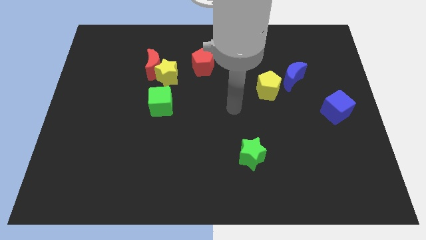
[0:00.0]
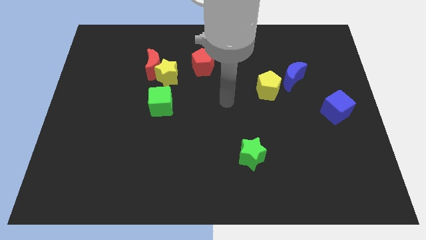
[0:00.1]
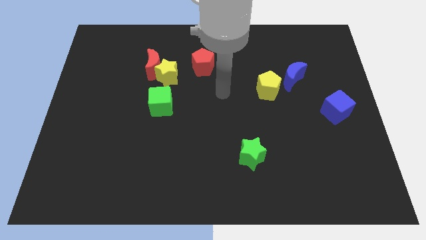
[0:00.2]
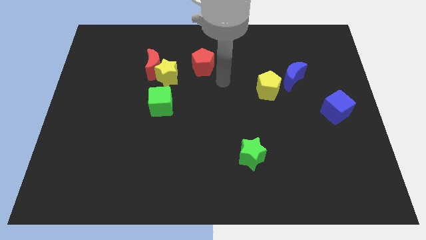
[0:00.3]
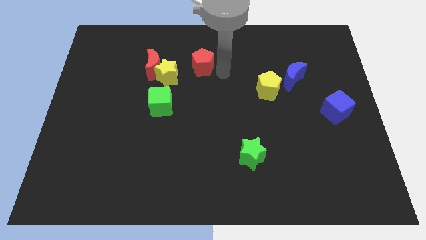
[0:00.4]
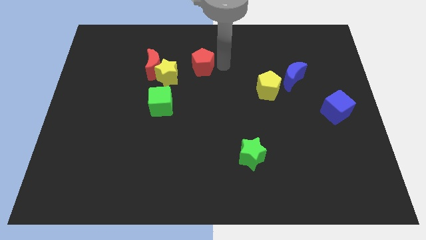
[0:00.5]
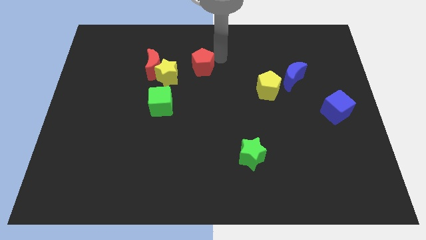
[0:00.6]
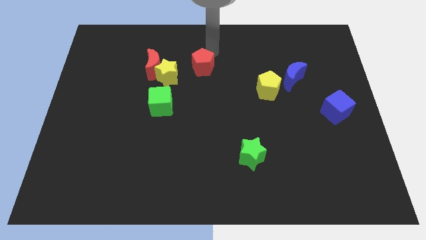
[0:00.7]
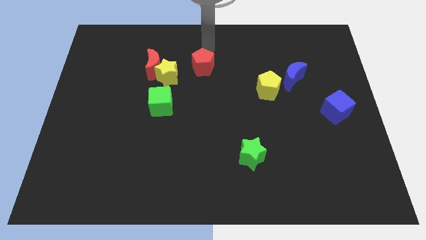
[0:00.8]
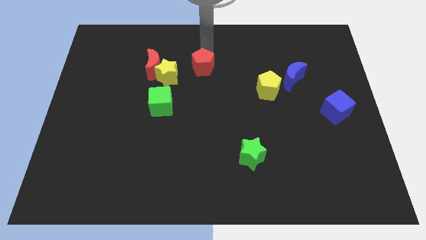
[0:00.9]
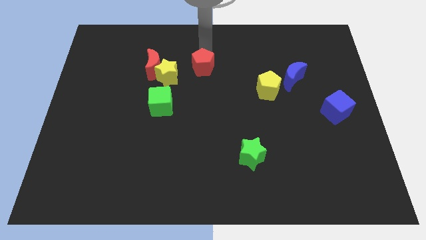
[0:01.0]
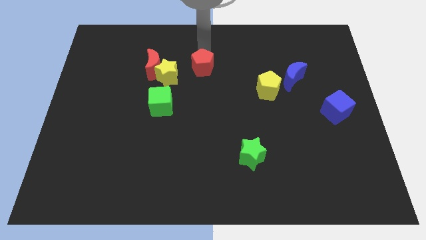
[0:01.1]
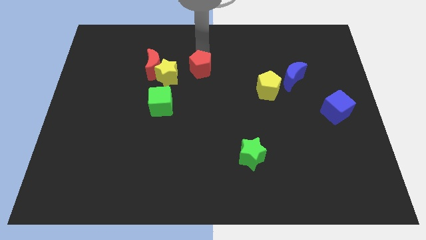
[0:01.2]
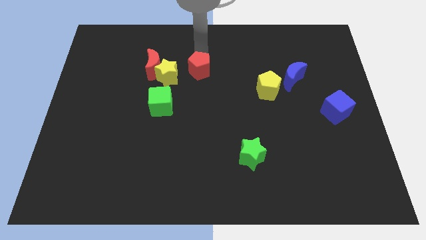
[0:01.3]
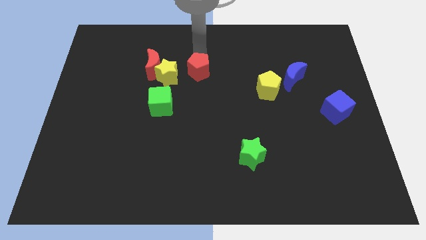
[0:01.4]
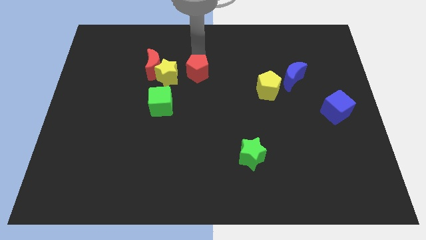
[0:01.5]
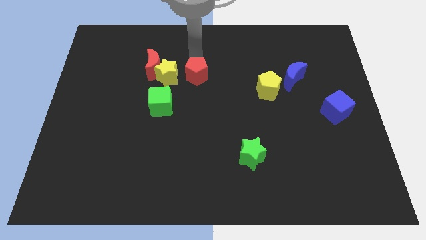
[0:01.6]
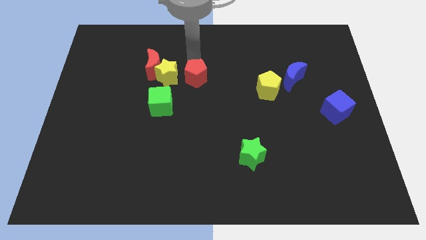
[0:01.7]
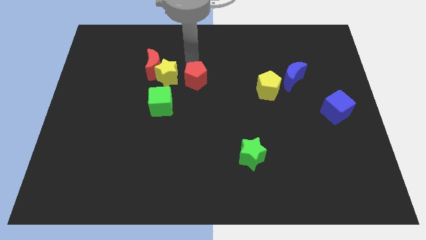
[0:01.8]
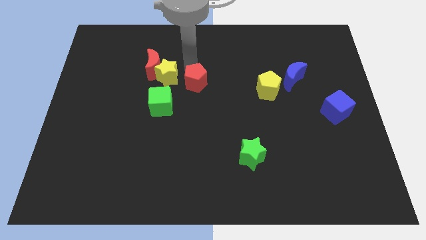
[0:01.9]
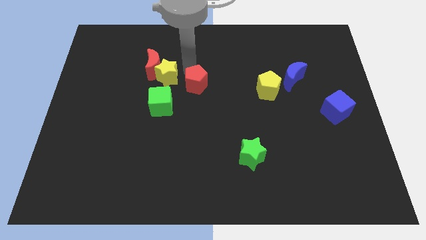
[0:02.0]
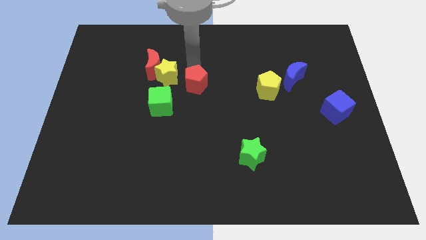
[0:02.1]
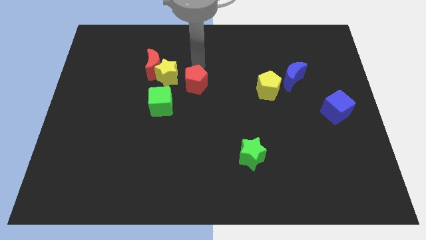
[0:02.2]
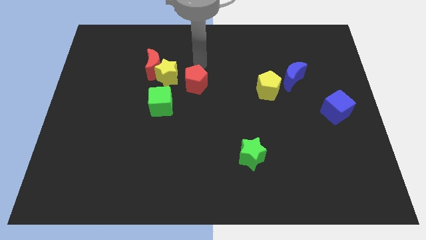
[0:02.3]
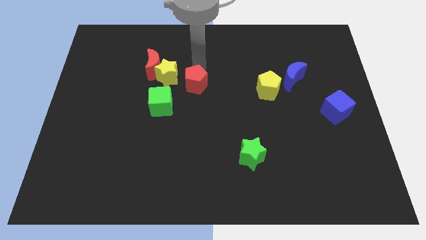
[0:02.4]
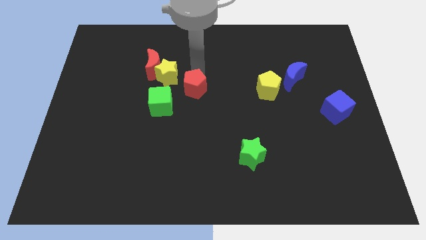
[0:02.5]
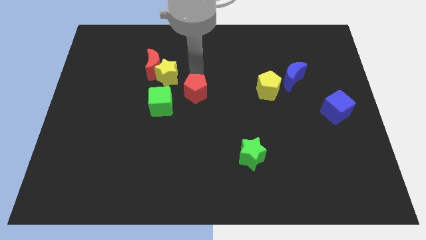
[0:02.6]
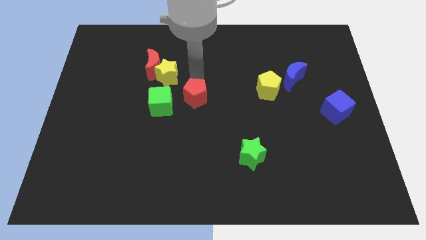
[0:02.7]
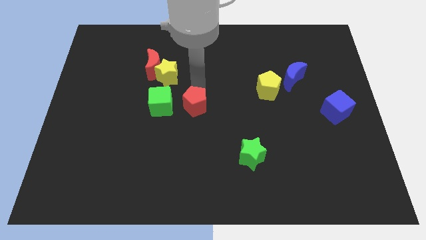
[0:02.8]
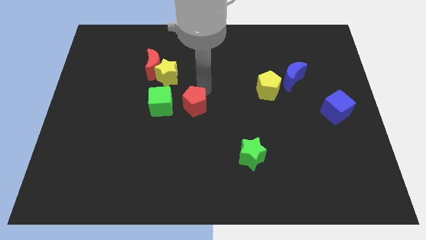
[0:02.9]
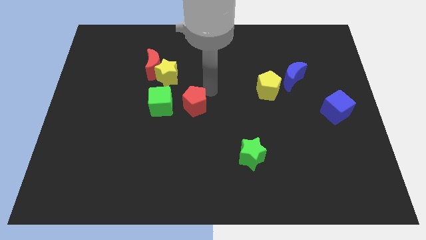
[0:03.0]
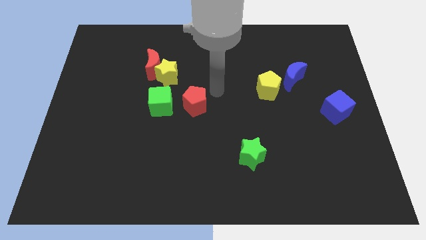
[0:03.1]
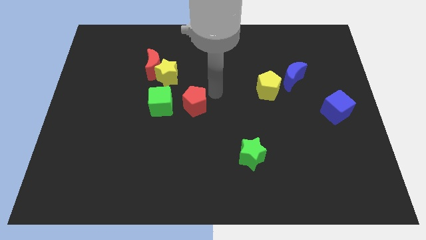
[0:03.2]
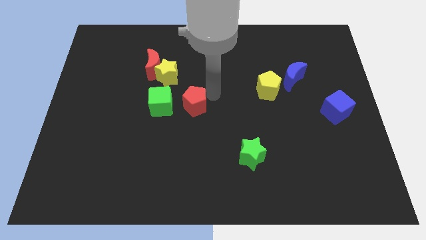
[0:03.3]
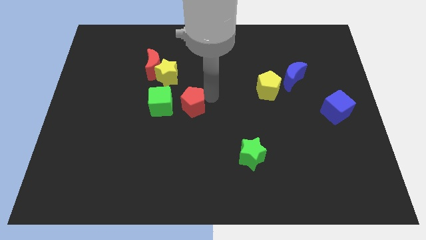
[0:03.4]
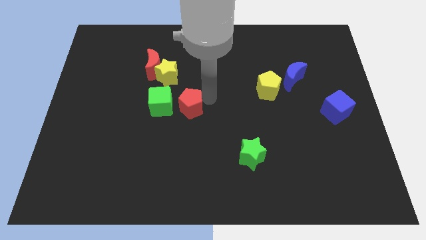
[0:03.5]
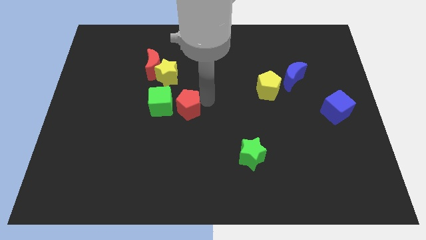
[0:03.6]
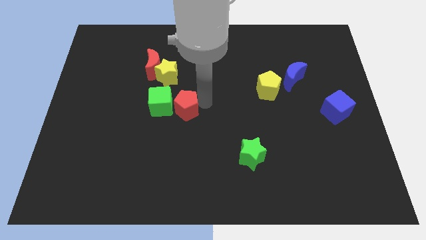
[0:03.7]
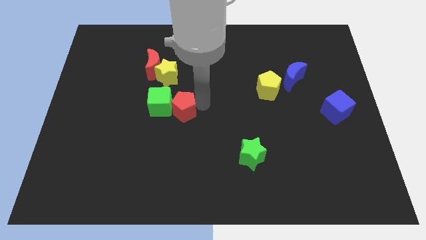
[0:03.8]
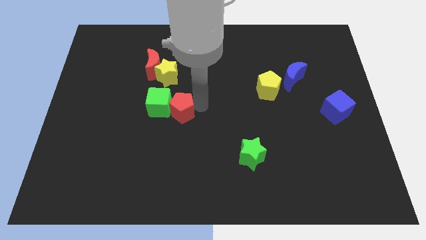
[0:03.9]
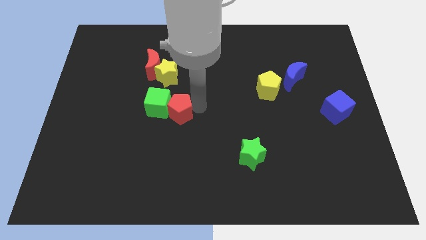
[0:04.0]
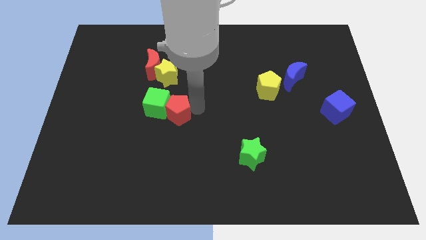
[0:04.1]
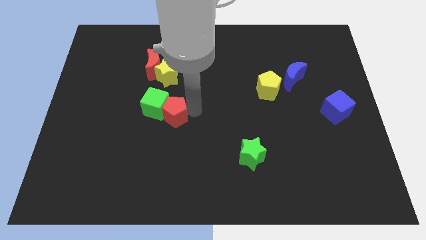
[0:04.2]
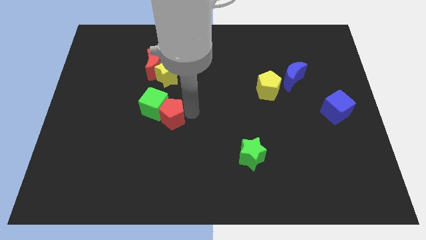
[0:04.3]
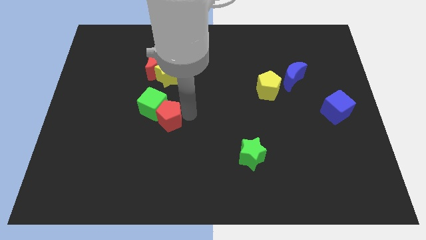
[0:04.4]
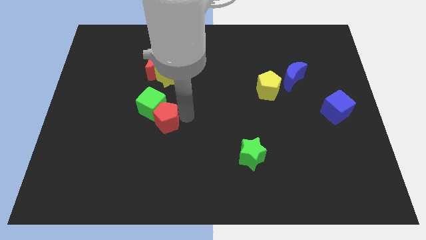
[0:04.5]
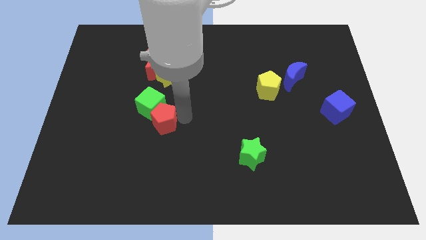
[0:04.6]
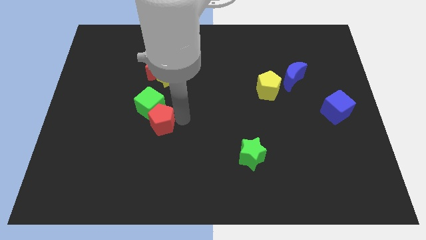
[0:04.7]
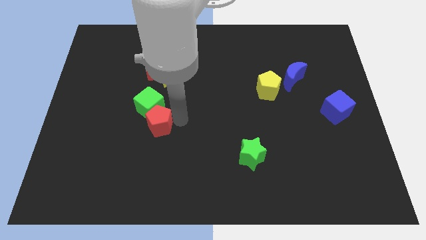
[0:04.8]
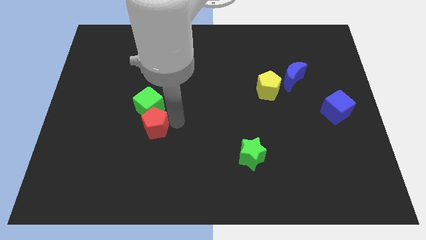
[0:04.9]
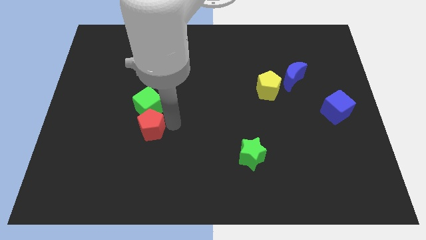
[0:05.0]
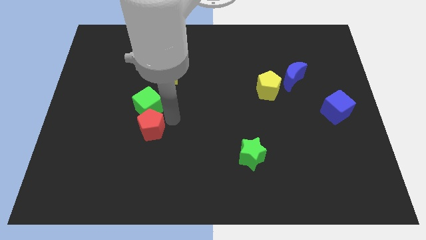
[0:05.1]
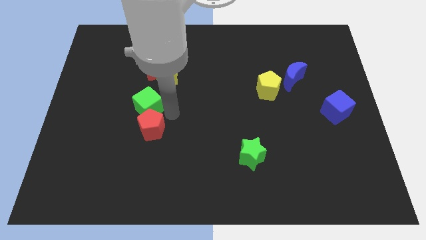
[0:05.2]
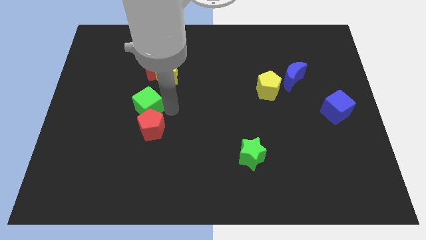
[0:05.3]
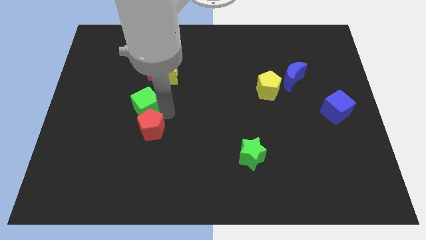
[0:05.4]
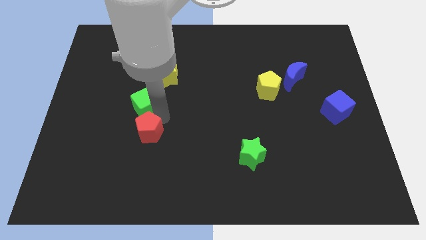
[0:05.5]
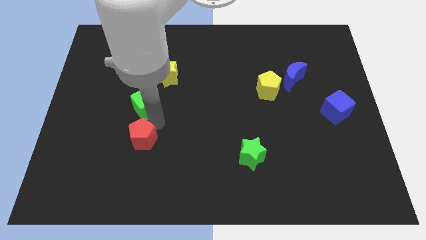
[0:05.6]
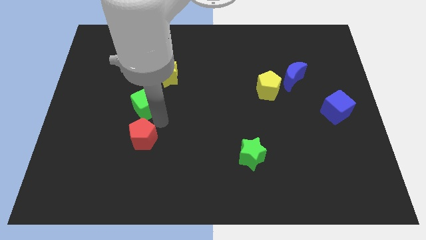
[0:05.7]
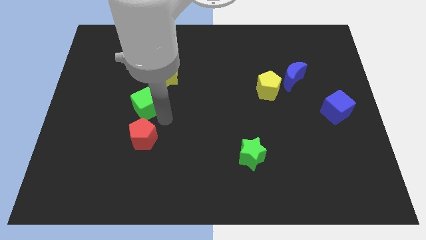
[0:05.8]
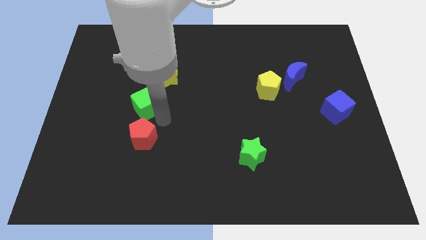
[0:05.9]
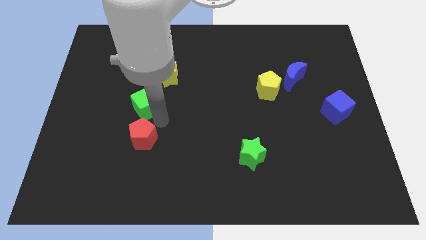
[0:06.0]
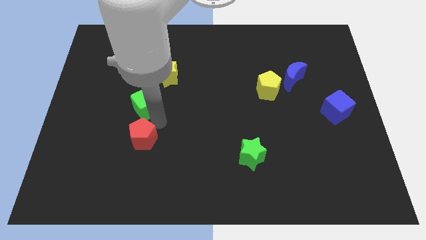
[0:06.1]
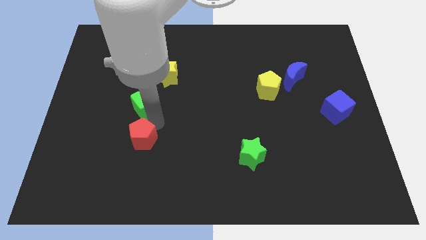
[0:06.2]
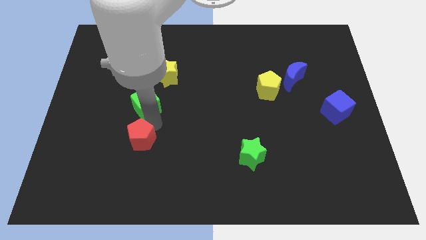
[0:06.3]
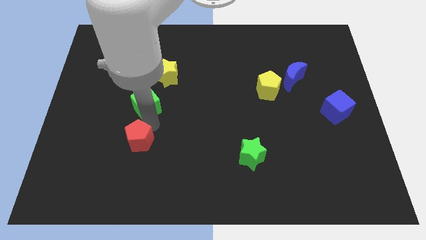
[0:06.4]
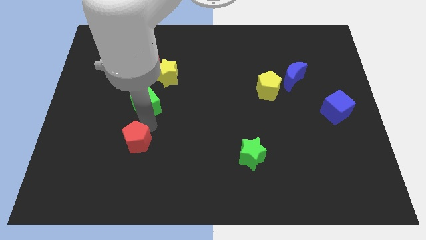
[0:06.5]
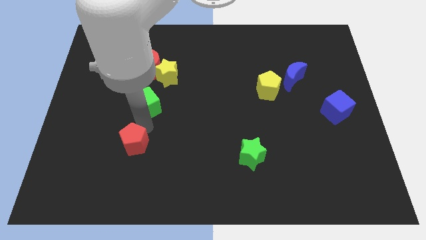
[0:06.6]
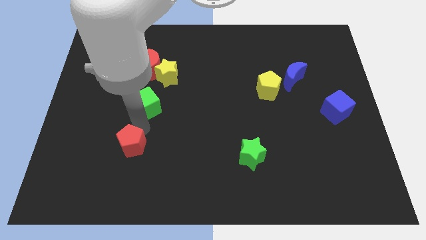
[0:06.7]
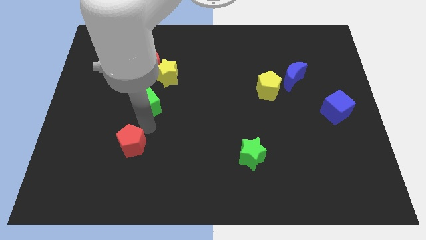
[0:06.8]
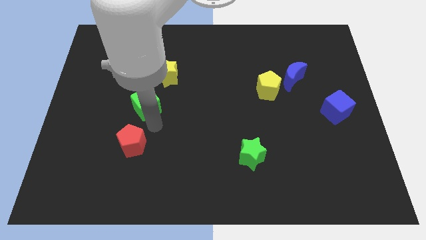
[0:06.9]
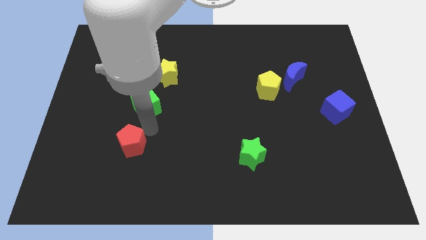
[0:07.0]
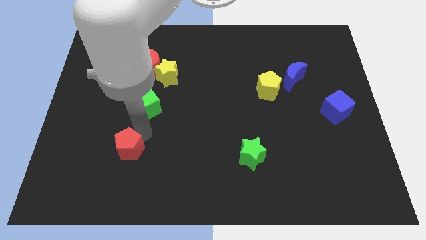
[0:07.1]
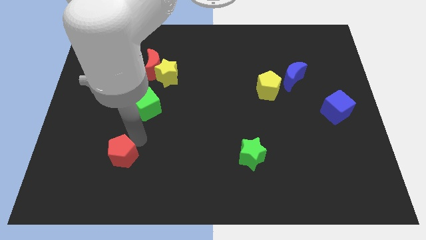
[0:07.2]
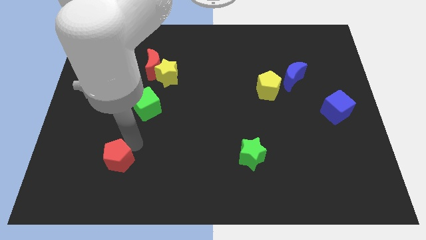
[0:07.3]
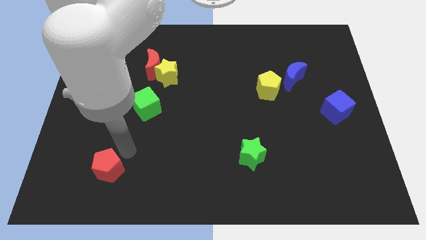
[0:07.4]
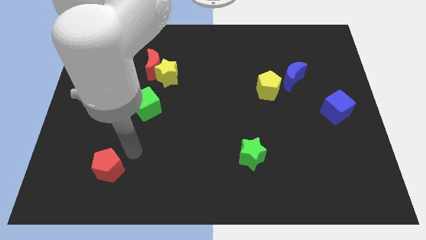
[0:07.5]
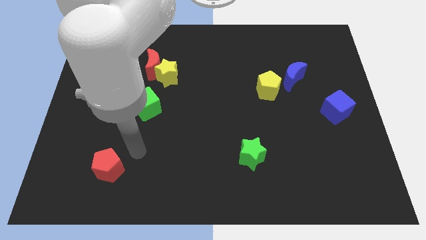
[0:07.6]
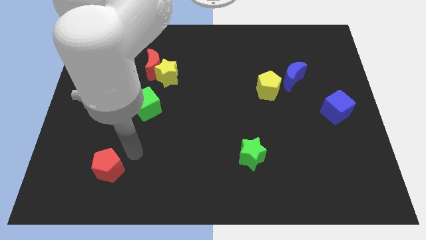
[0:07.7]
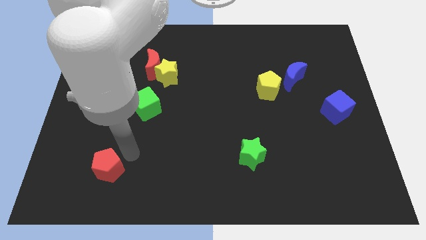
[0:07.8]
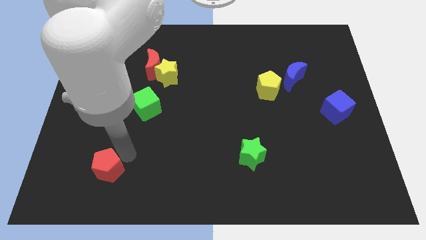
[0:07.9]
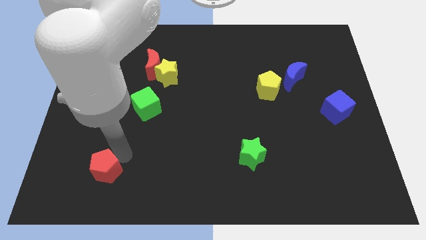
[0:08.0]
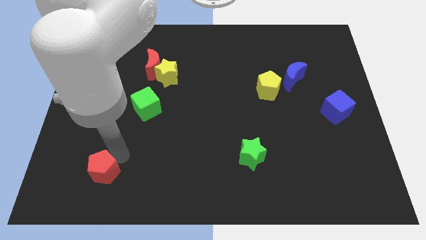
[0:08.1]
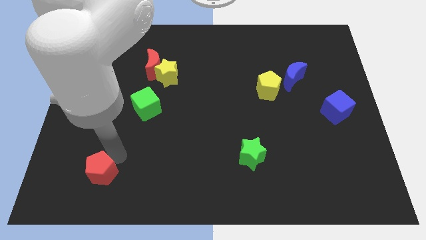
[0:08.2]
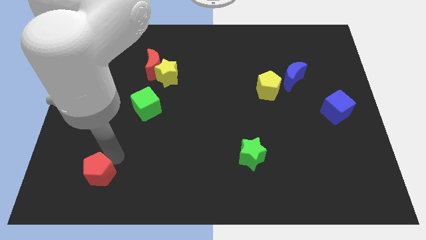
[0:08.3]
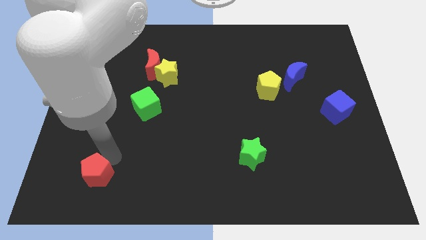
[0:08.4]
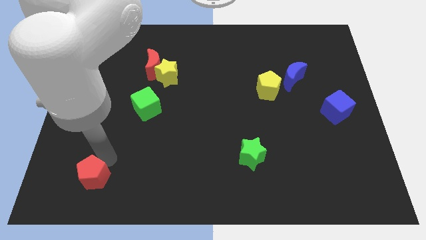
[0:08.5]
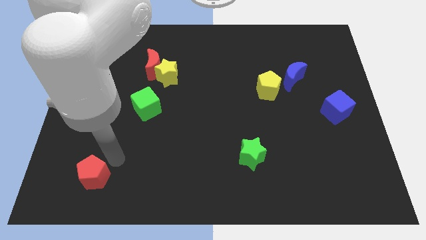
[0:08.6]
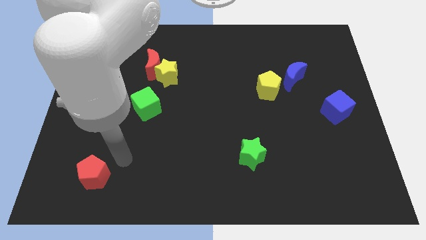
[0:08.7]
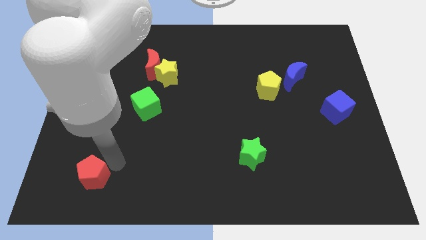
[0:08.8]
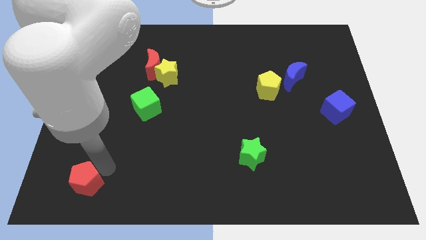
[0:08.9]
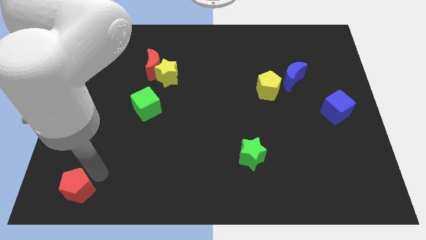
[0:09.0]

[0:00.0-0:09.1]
slide the red pentagon to the bottom left
